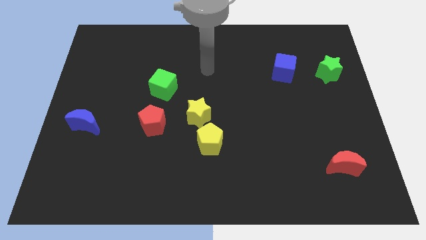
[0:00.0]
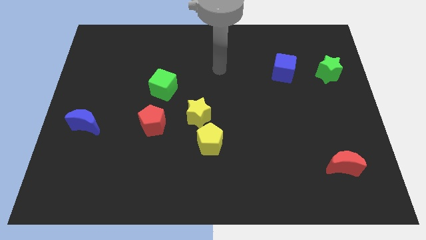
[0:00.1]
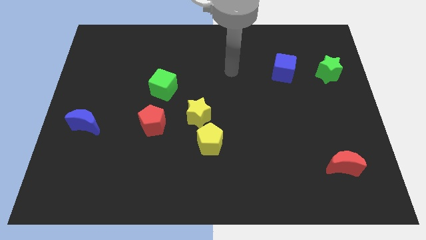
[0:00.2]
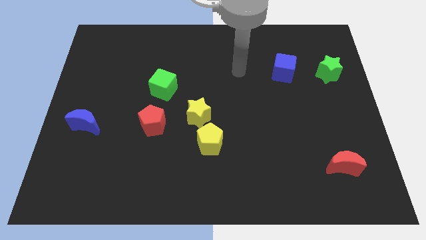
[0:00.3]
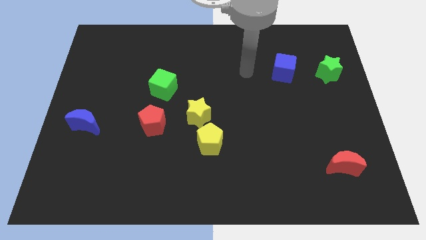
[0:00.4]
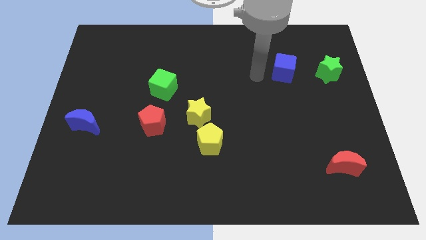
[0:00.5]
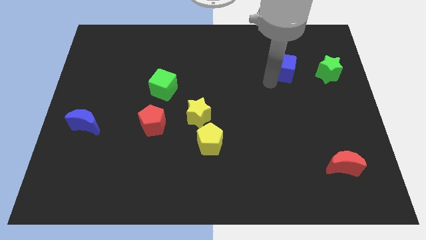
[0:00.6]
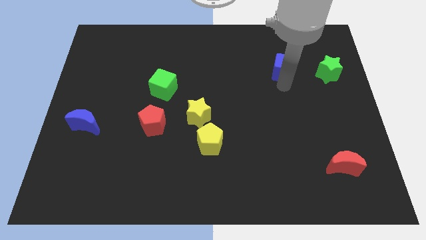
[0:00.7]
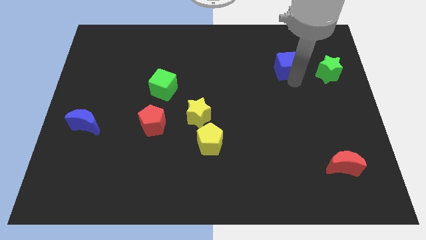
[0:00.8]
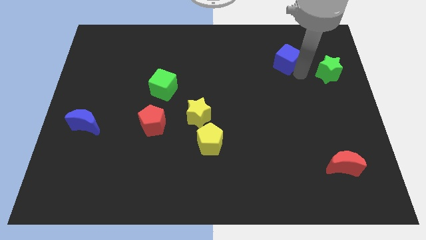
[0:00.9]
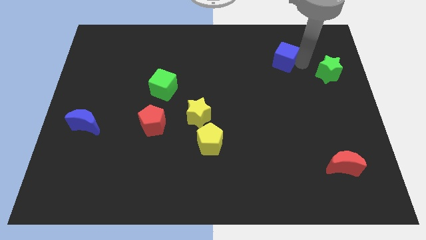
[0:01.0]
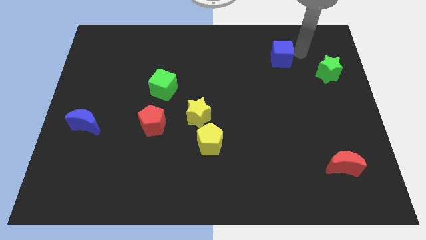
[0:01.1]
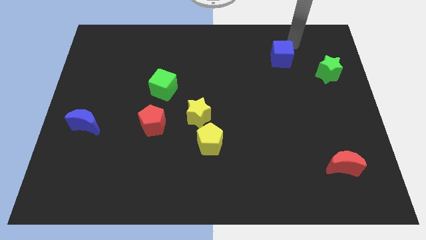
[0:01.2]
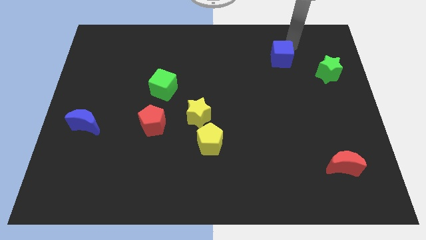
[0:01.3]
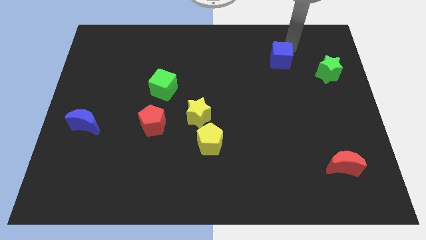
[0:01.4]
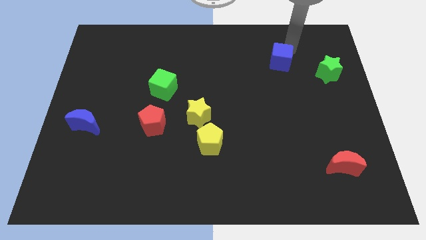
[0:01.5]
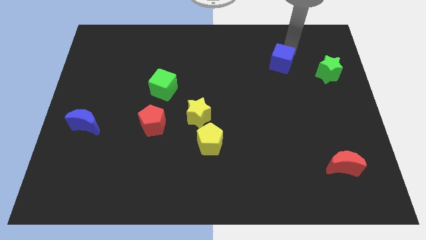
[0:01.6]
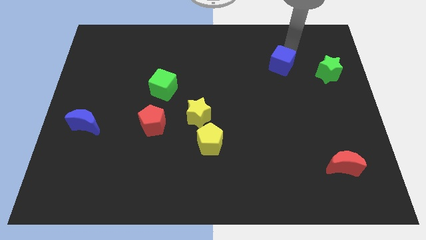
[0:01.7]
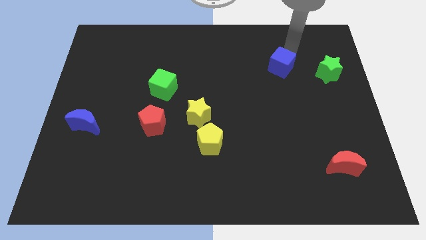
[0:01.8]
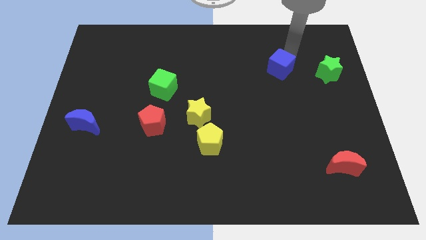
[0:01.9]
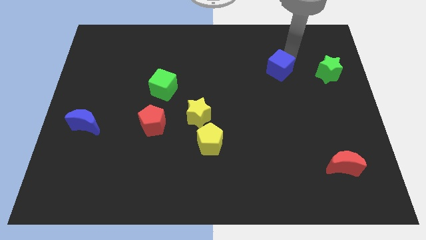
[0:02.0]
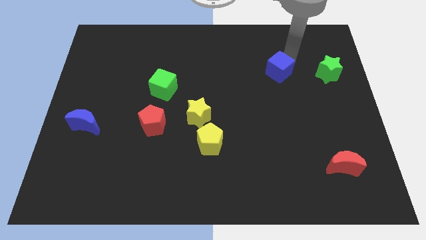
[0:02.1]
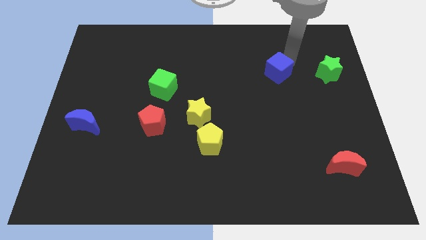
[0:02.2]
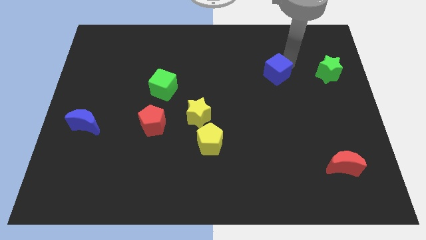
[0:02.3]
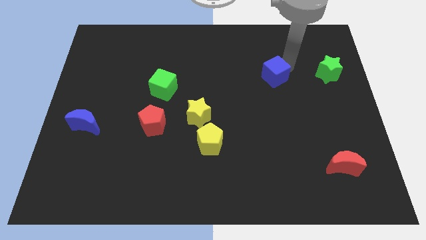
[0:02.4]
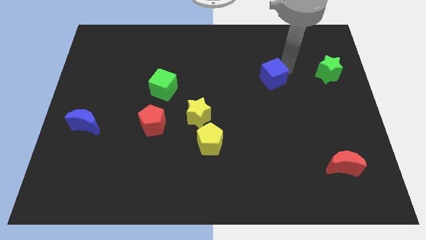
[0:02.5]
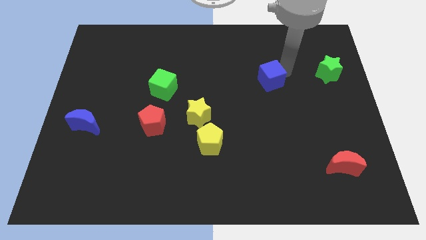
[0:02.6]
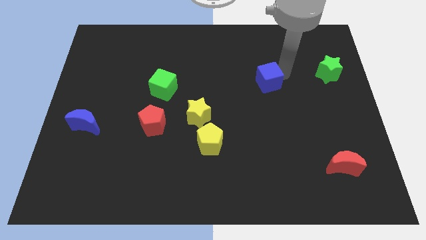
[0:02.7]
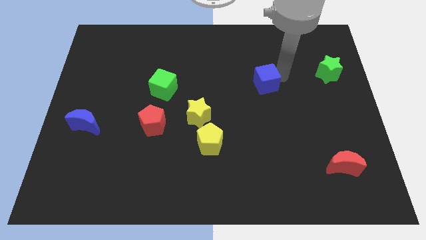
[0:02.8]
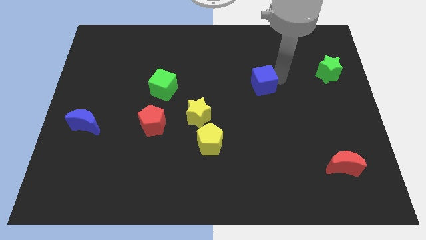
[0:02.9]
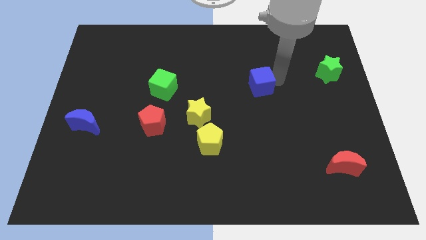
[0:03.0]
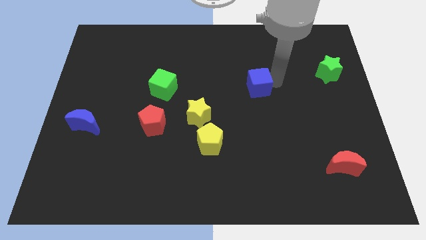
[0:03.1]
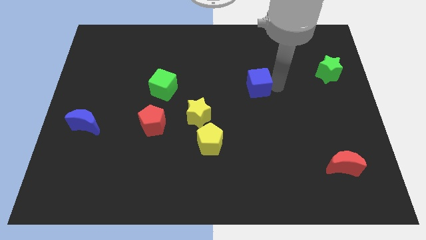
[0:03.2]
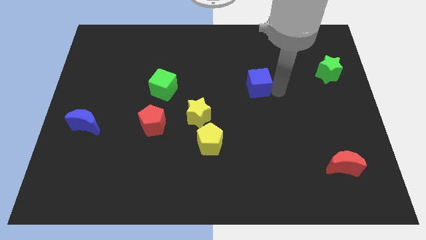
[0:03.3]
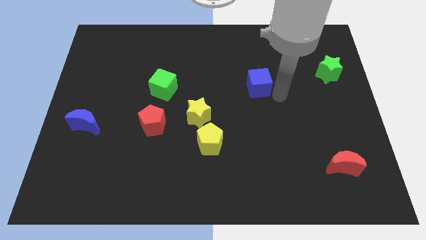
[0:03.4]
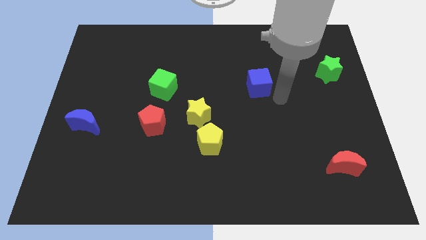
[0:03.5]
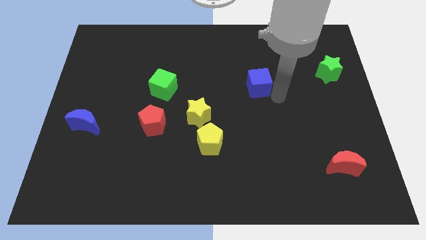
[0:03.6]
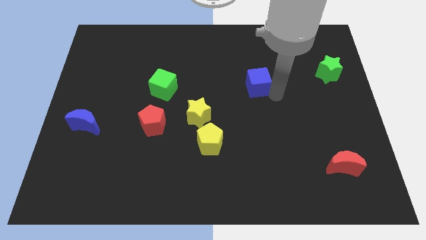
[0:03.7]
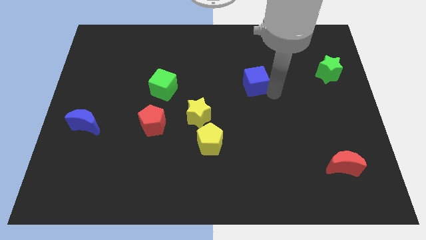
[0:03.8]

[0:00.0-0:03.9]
move the blue cube slightly left

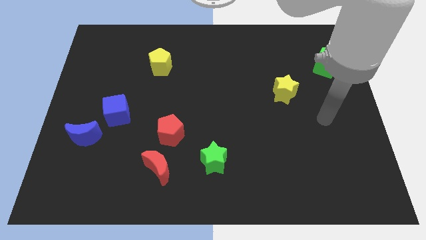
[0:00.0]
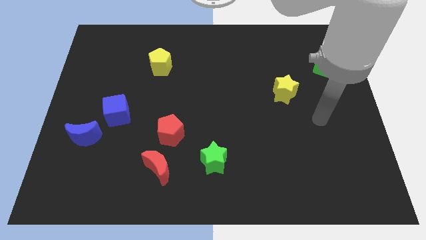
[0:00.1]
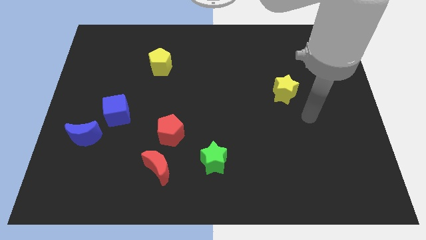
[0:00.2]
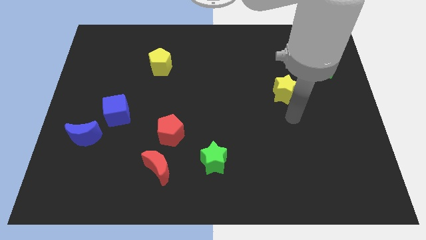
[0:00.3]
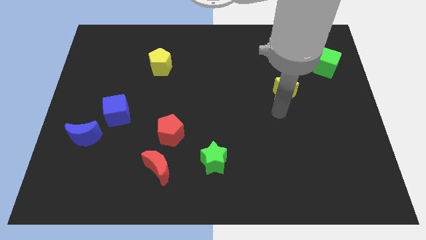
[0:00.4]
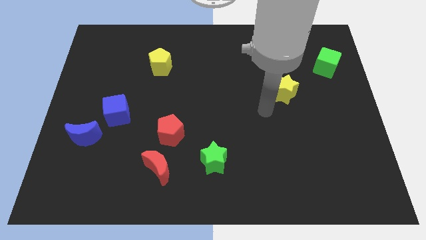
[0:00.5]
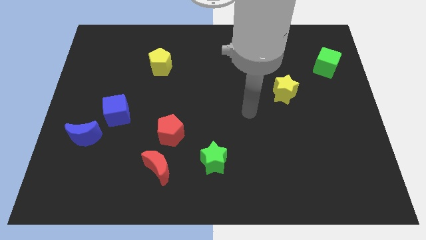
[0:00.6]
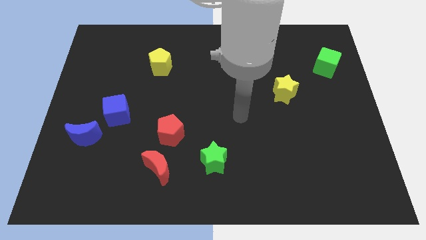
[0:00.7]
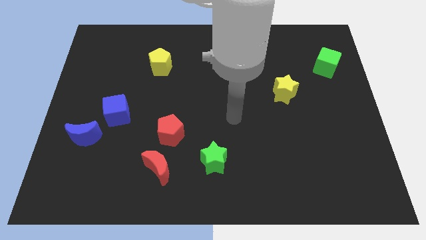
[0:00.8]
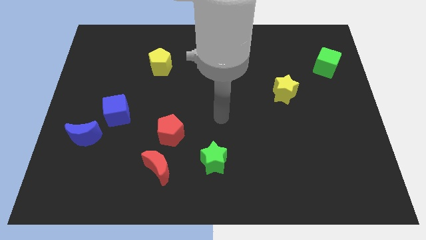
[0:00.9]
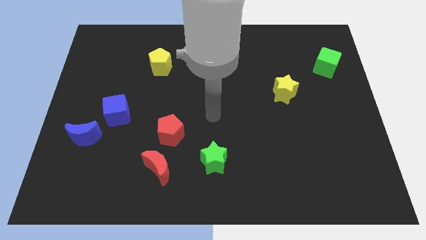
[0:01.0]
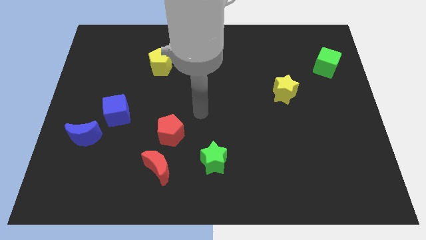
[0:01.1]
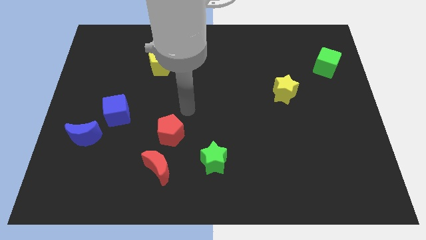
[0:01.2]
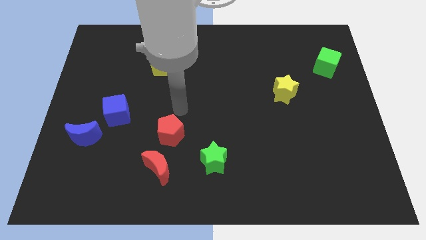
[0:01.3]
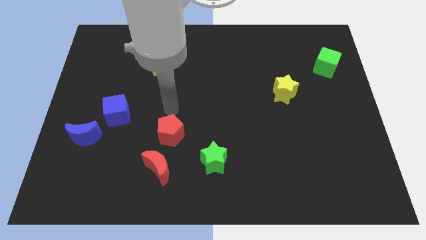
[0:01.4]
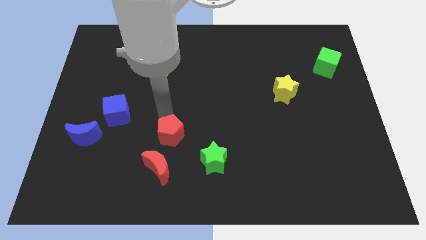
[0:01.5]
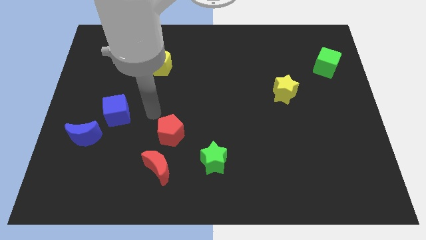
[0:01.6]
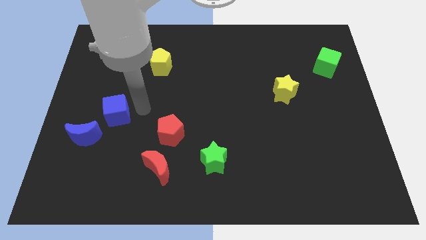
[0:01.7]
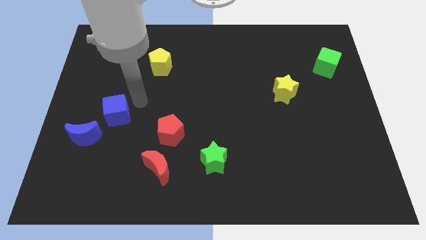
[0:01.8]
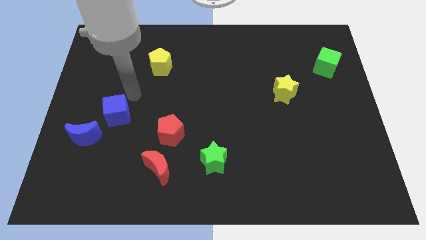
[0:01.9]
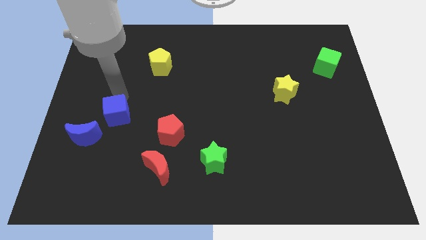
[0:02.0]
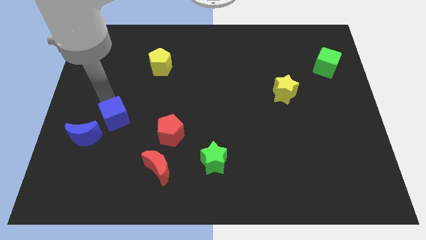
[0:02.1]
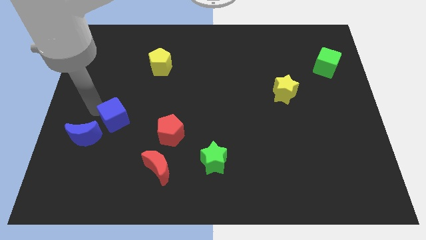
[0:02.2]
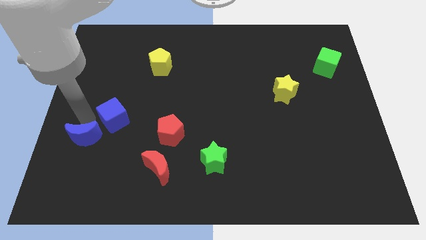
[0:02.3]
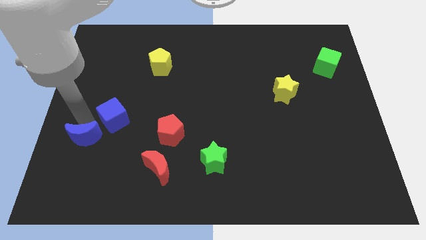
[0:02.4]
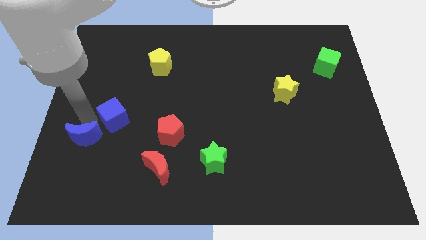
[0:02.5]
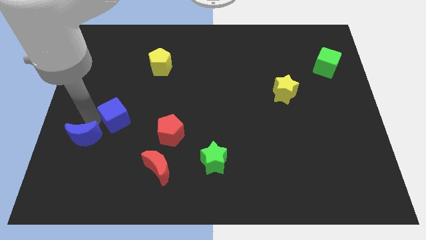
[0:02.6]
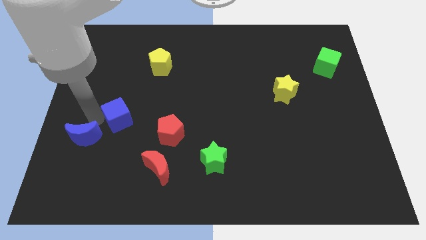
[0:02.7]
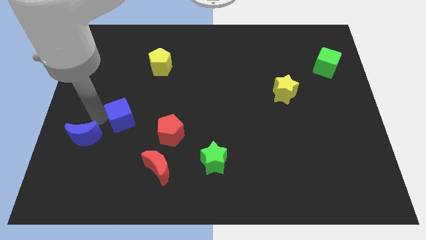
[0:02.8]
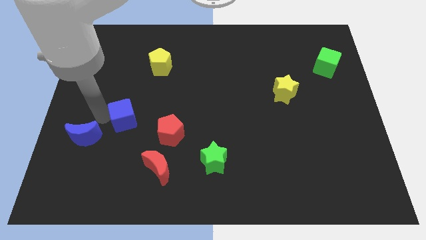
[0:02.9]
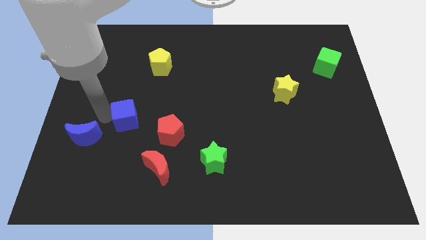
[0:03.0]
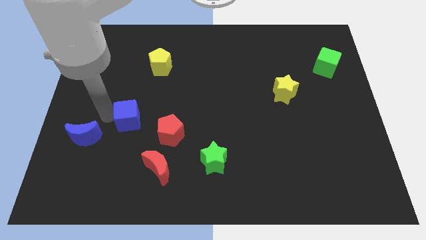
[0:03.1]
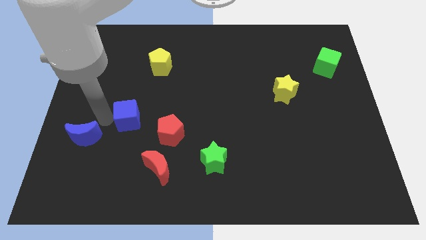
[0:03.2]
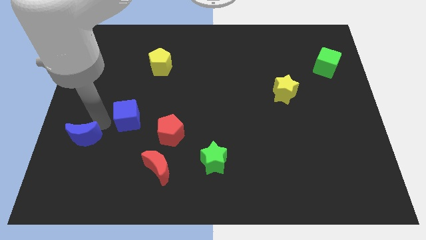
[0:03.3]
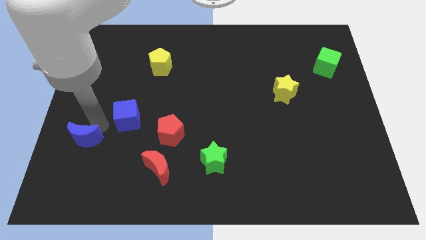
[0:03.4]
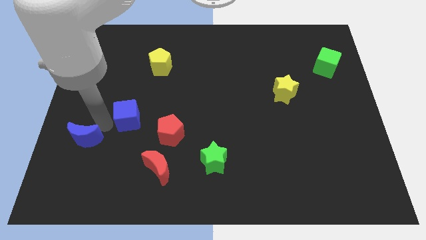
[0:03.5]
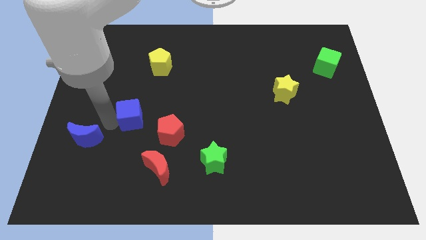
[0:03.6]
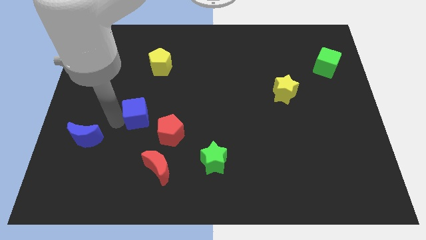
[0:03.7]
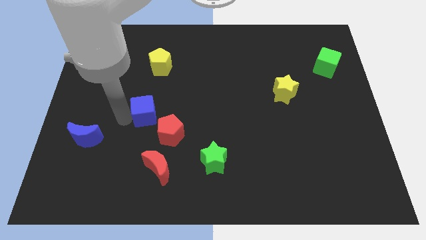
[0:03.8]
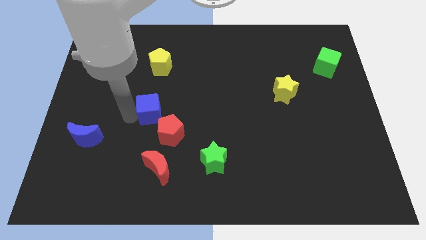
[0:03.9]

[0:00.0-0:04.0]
slide the blue cube a little right

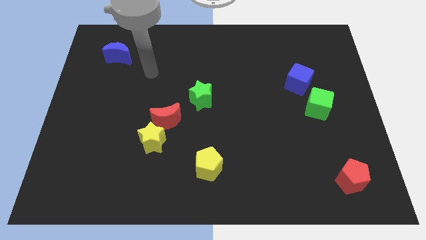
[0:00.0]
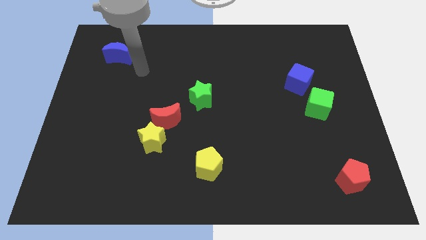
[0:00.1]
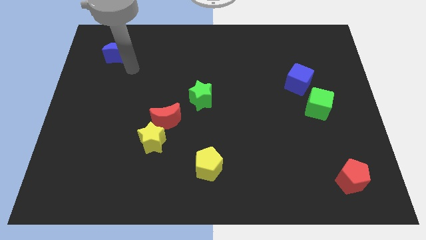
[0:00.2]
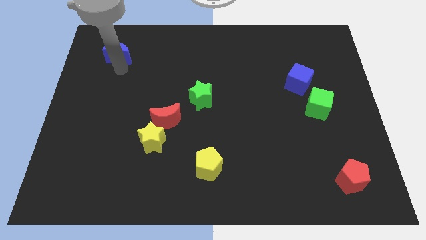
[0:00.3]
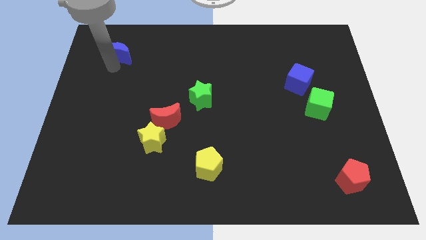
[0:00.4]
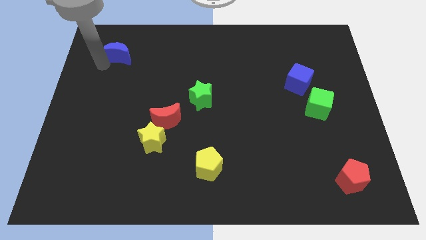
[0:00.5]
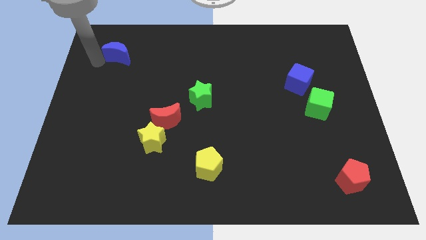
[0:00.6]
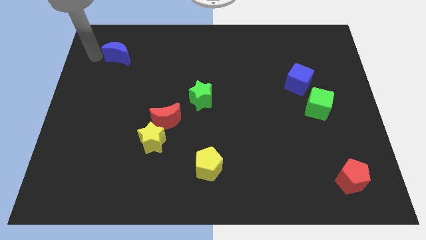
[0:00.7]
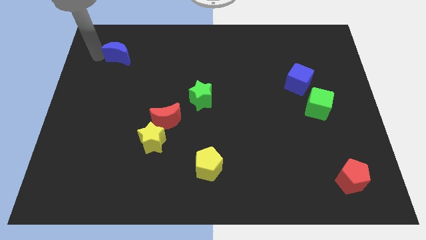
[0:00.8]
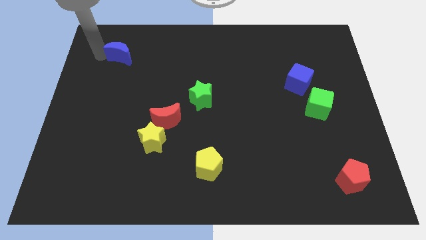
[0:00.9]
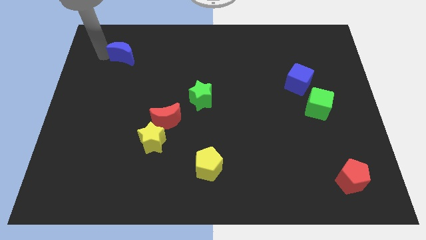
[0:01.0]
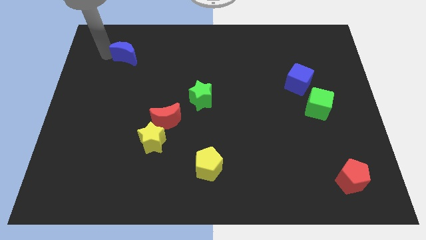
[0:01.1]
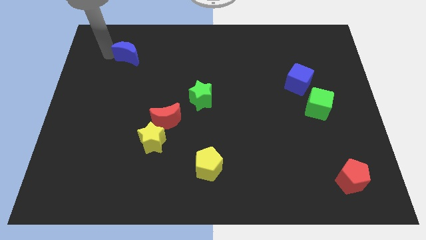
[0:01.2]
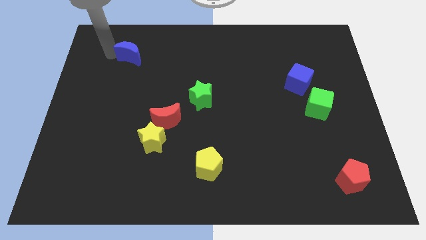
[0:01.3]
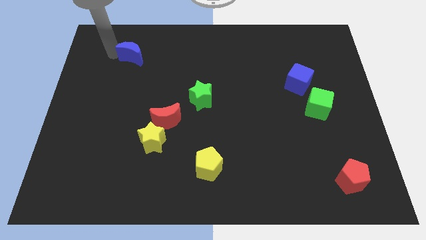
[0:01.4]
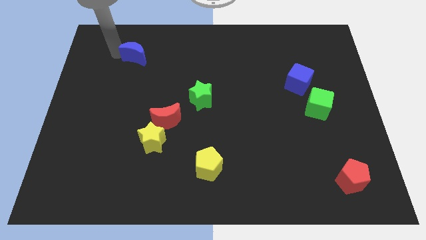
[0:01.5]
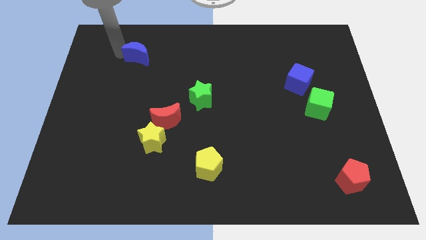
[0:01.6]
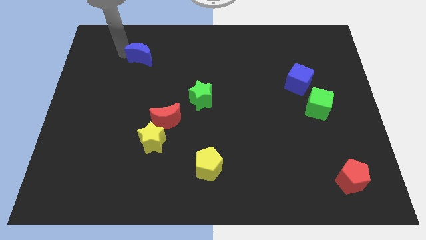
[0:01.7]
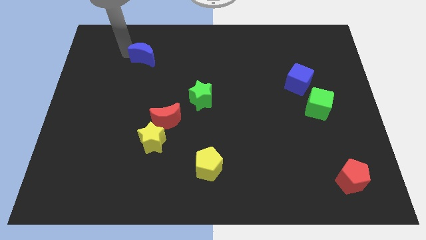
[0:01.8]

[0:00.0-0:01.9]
slightly slide the blue moon to the right
